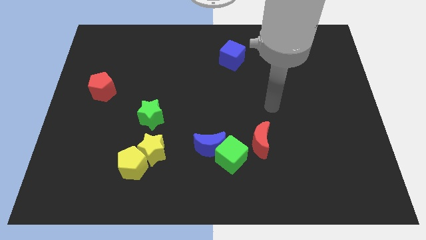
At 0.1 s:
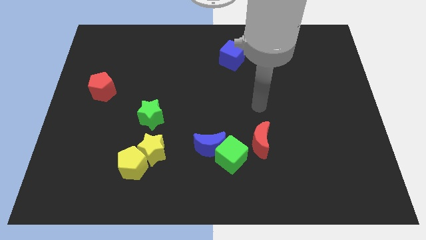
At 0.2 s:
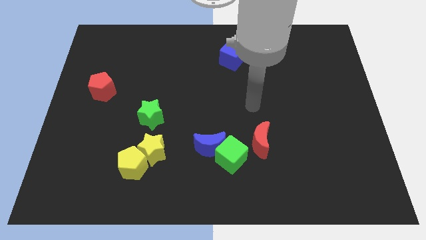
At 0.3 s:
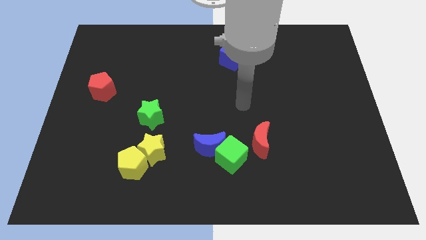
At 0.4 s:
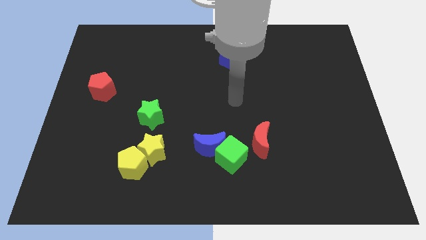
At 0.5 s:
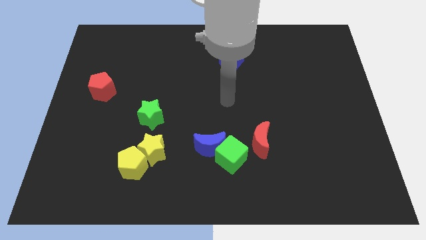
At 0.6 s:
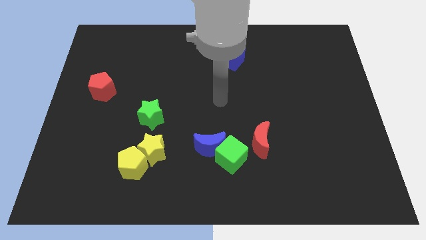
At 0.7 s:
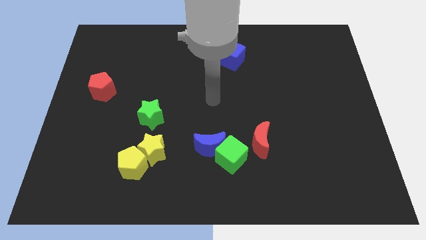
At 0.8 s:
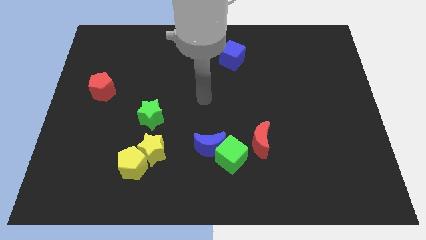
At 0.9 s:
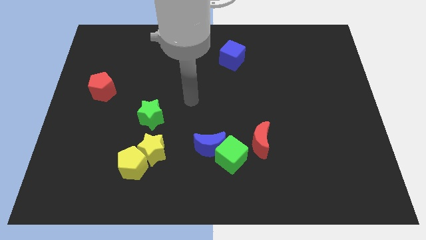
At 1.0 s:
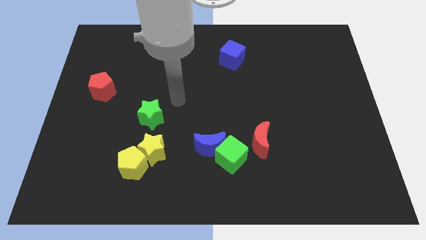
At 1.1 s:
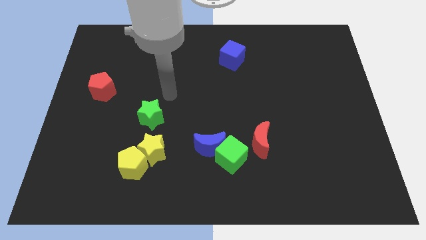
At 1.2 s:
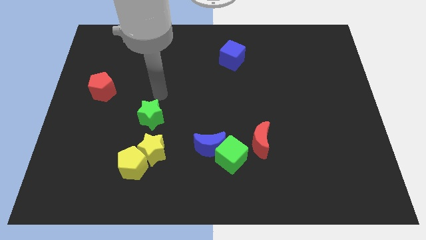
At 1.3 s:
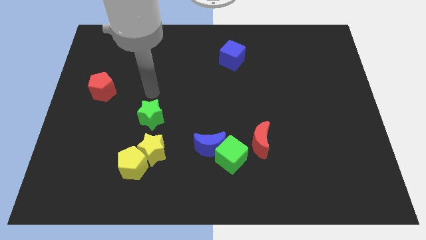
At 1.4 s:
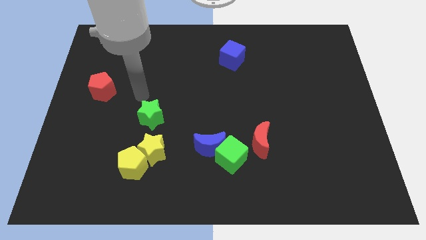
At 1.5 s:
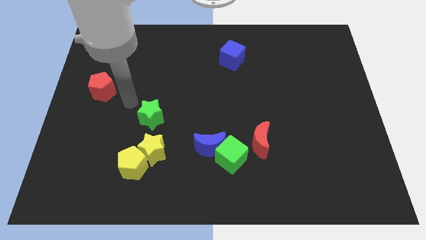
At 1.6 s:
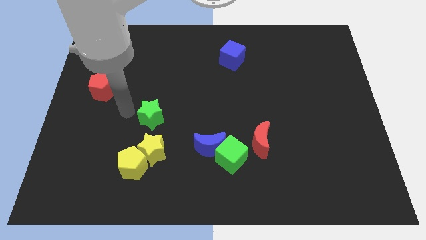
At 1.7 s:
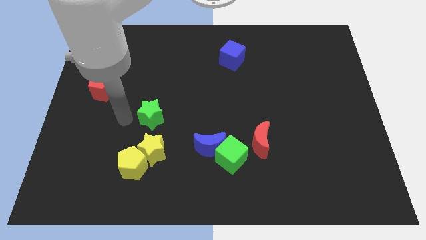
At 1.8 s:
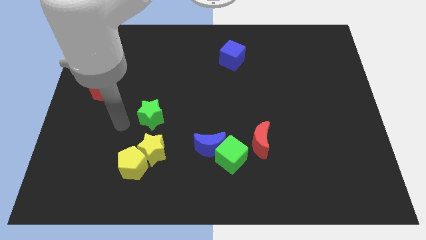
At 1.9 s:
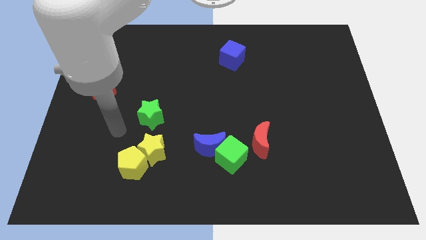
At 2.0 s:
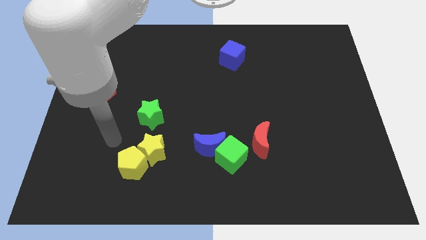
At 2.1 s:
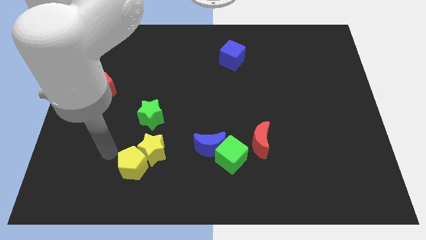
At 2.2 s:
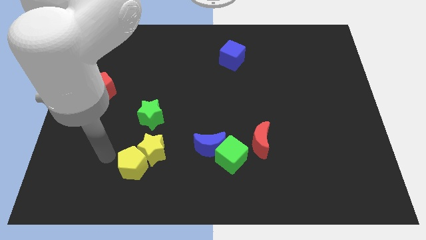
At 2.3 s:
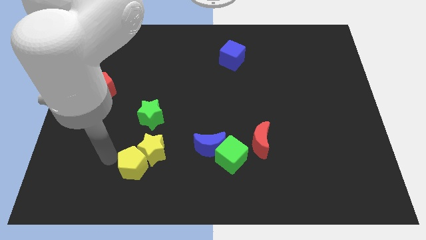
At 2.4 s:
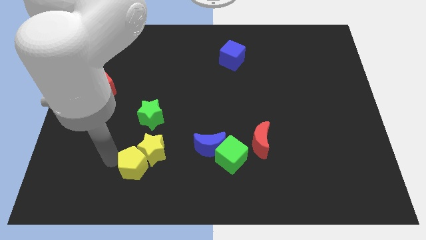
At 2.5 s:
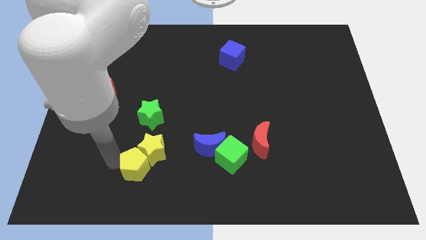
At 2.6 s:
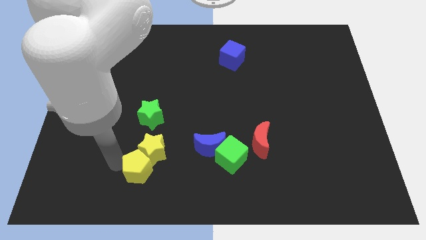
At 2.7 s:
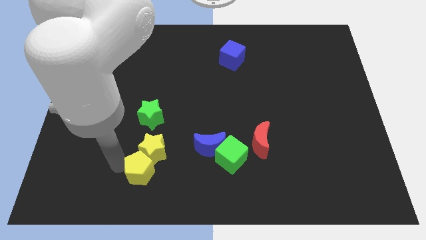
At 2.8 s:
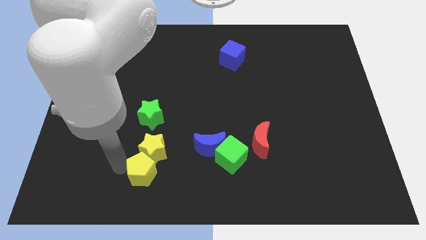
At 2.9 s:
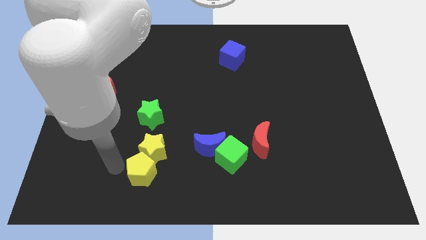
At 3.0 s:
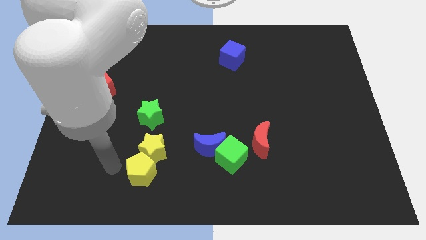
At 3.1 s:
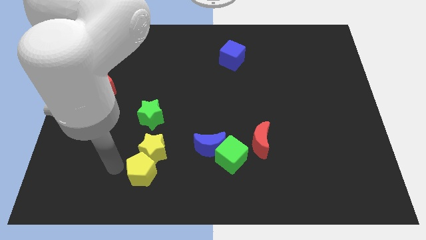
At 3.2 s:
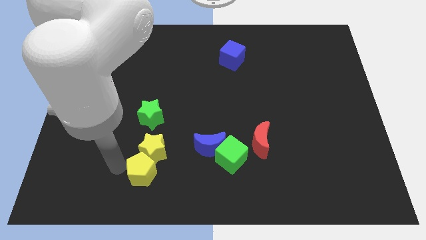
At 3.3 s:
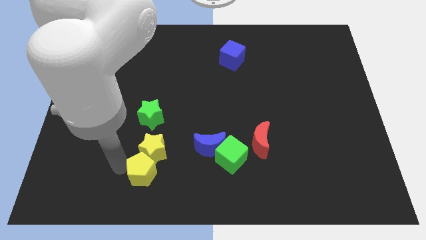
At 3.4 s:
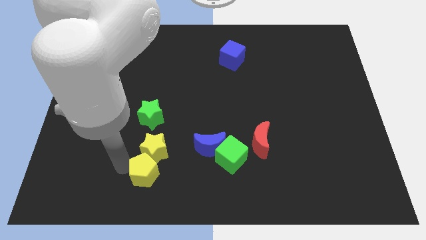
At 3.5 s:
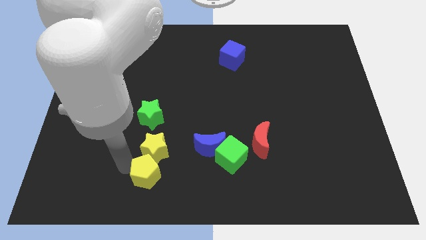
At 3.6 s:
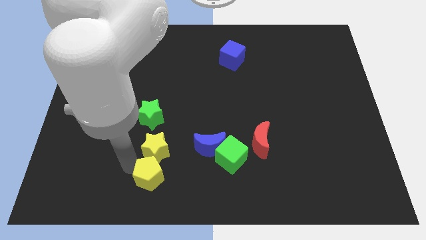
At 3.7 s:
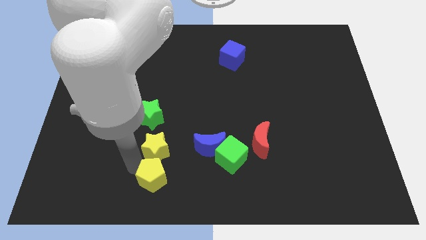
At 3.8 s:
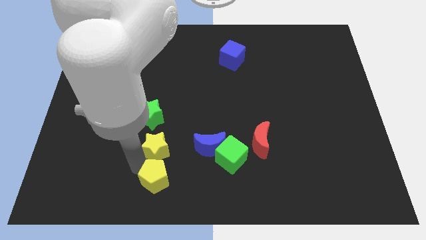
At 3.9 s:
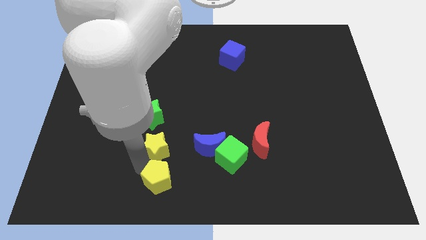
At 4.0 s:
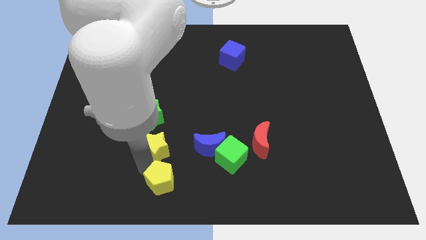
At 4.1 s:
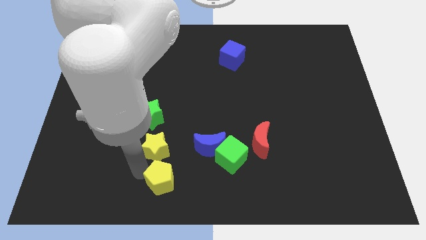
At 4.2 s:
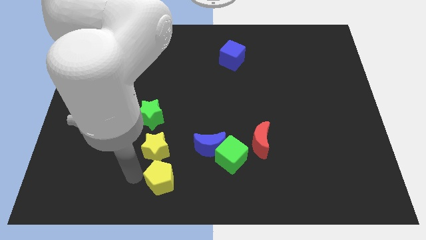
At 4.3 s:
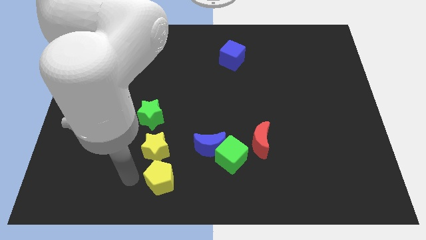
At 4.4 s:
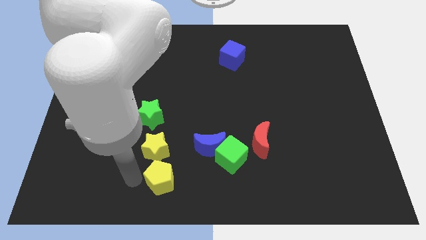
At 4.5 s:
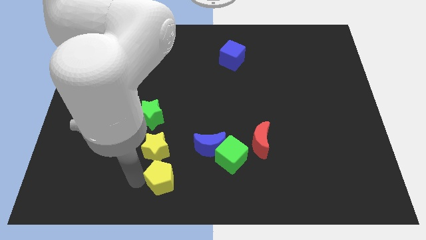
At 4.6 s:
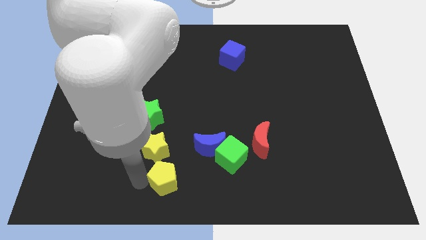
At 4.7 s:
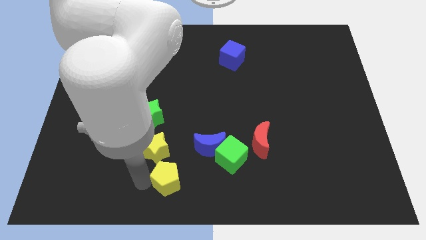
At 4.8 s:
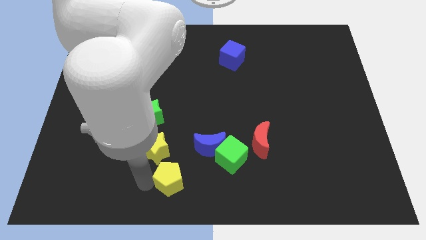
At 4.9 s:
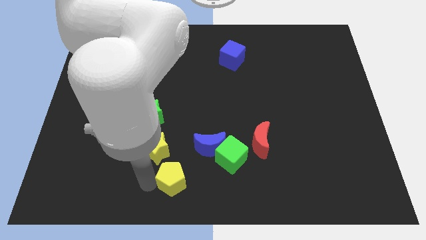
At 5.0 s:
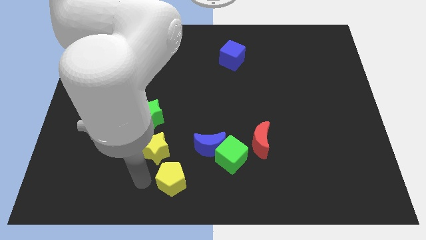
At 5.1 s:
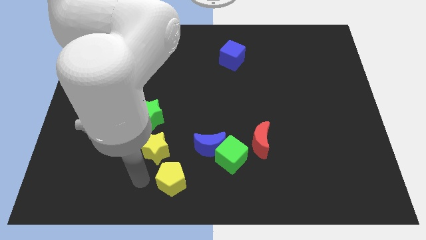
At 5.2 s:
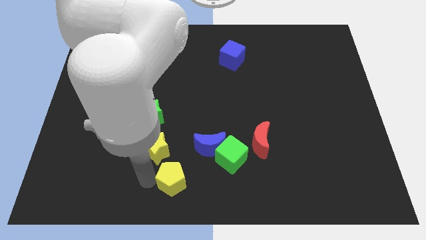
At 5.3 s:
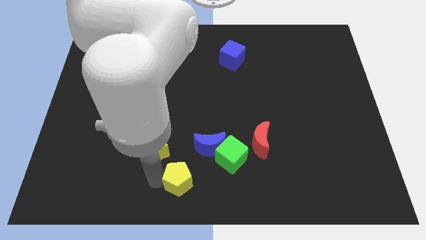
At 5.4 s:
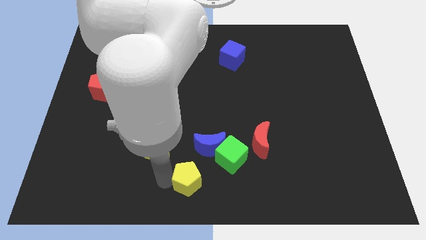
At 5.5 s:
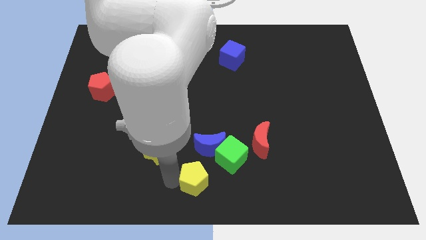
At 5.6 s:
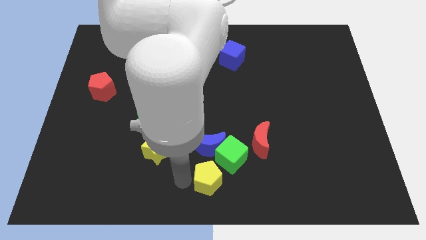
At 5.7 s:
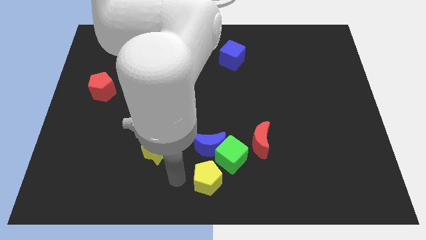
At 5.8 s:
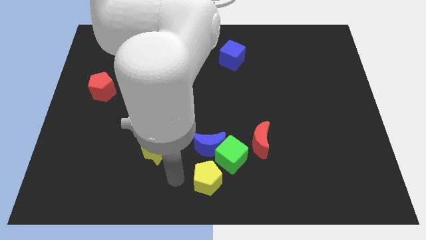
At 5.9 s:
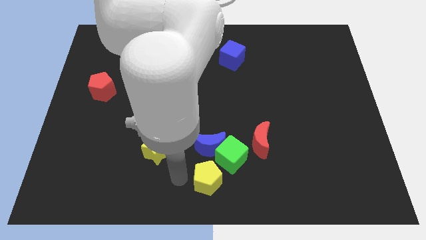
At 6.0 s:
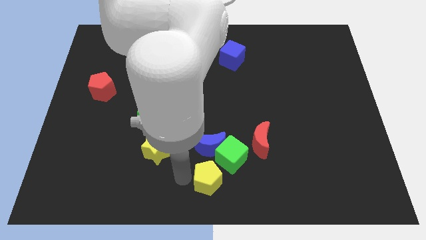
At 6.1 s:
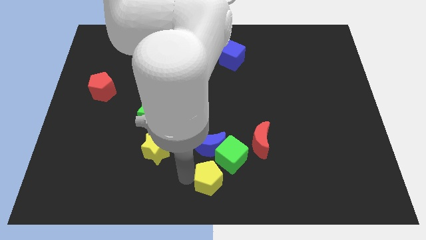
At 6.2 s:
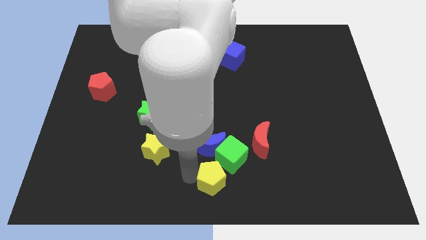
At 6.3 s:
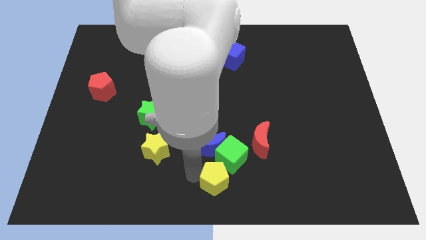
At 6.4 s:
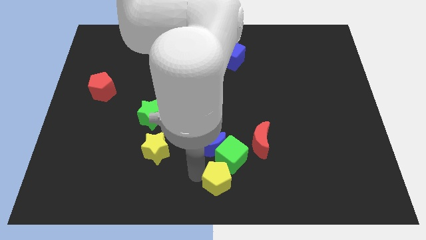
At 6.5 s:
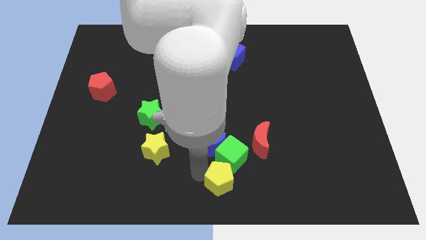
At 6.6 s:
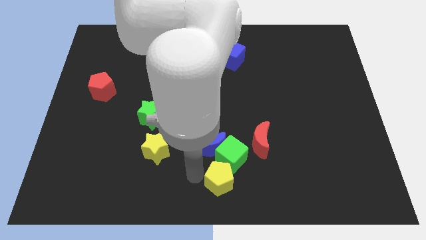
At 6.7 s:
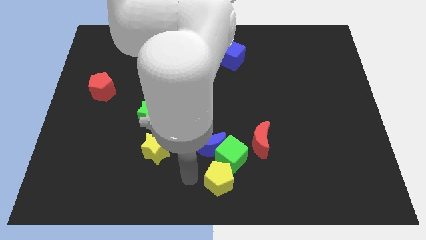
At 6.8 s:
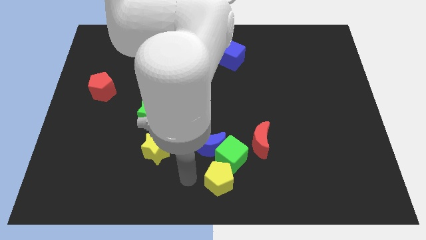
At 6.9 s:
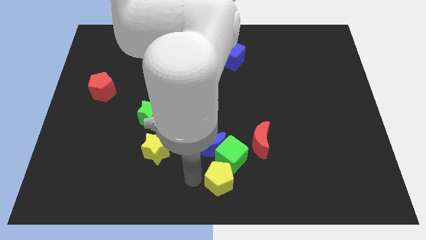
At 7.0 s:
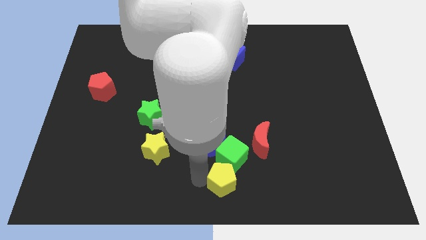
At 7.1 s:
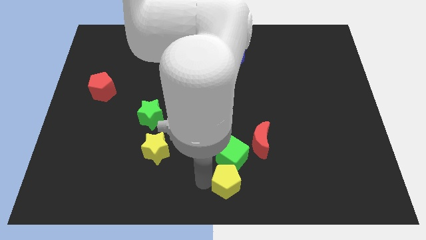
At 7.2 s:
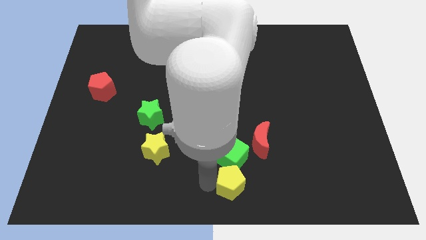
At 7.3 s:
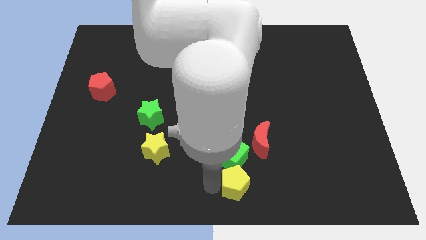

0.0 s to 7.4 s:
slide the yellow pentagon right

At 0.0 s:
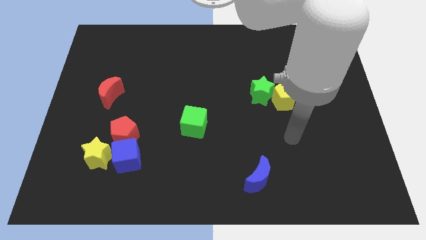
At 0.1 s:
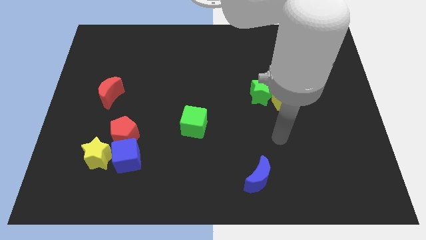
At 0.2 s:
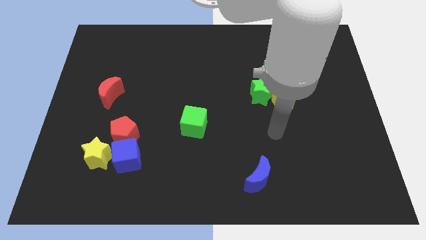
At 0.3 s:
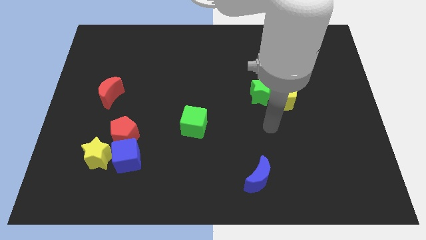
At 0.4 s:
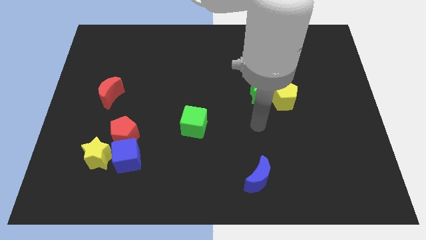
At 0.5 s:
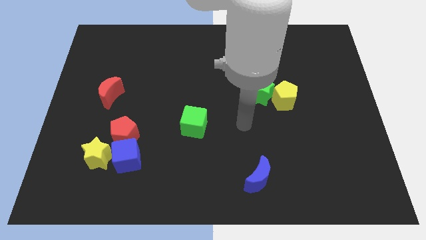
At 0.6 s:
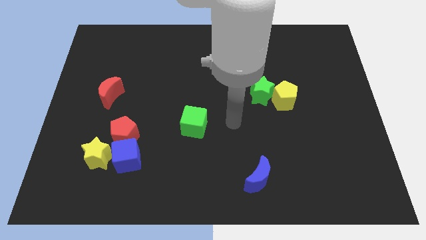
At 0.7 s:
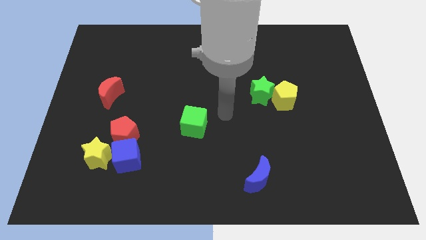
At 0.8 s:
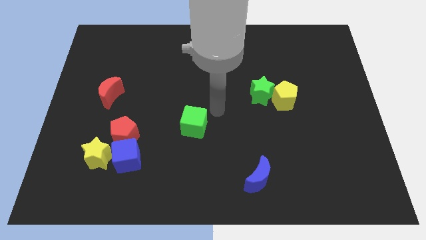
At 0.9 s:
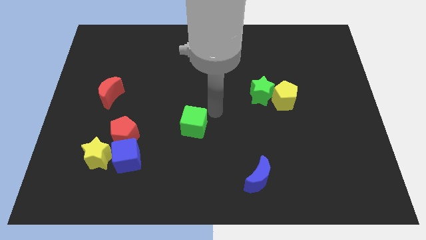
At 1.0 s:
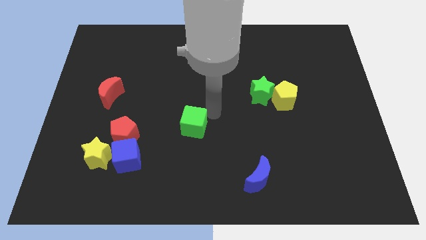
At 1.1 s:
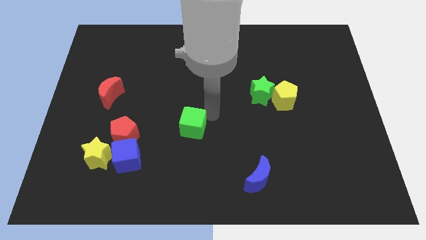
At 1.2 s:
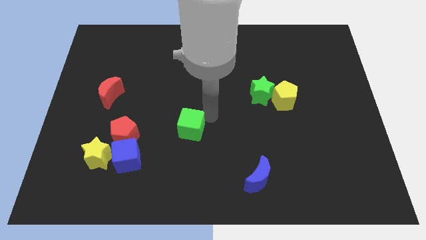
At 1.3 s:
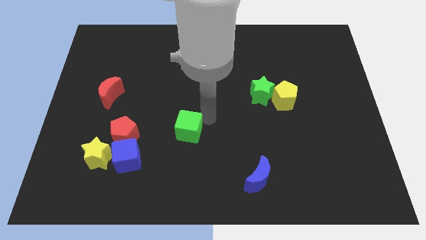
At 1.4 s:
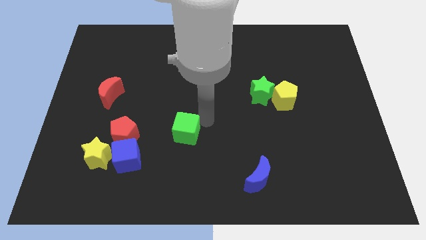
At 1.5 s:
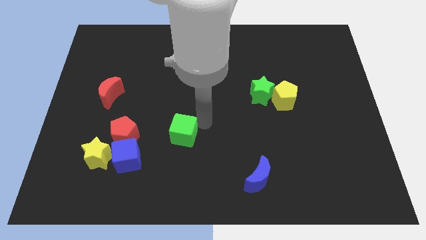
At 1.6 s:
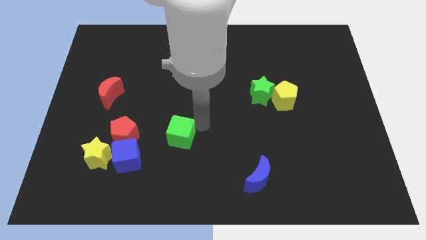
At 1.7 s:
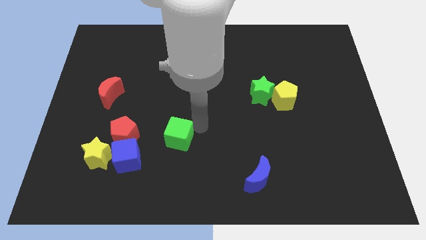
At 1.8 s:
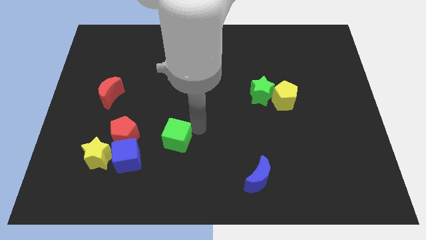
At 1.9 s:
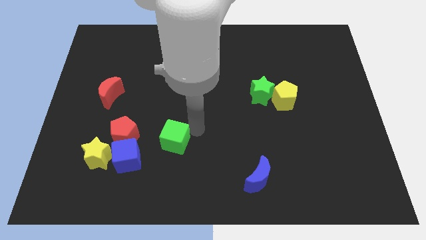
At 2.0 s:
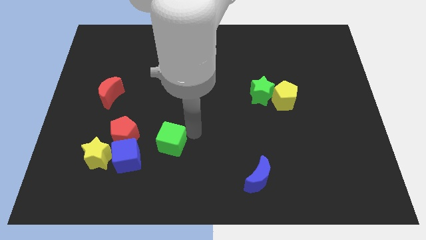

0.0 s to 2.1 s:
slide the green cube diagonally down and to the left a bit
